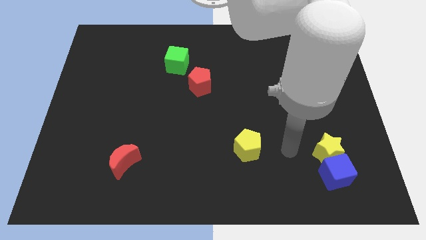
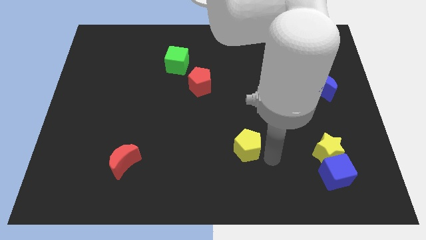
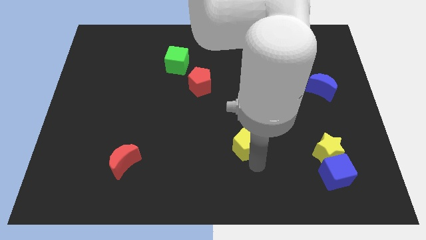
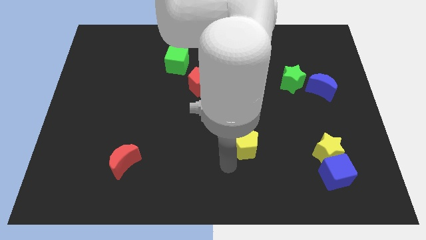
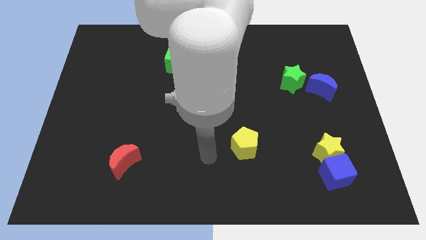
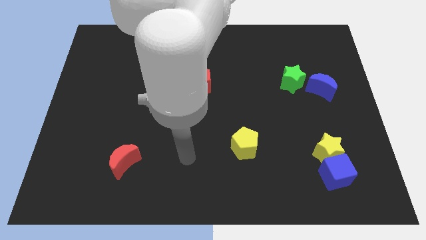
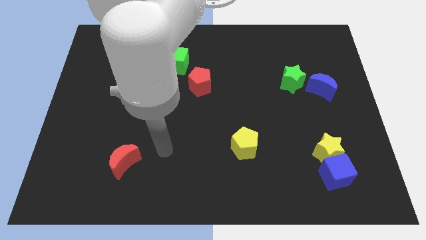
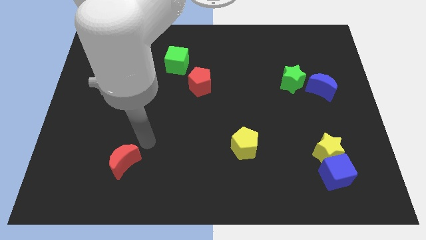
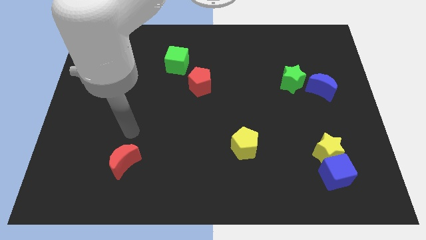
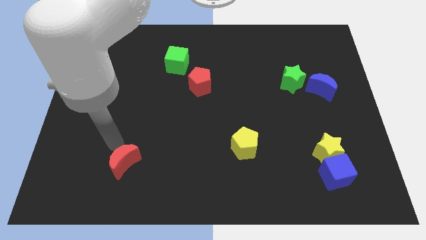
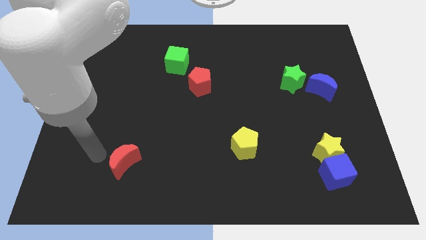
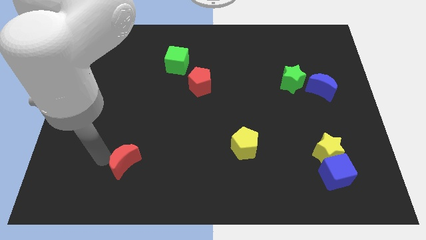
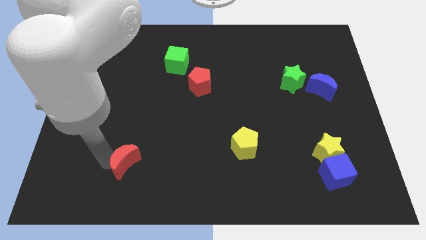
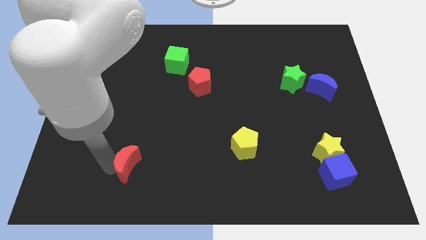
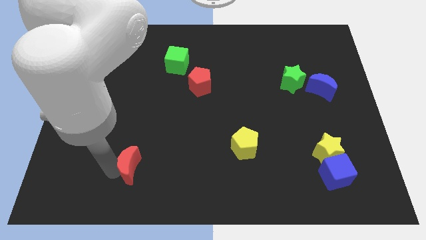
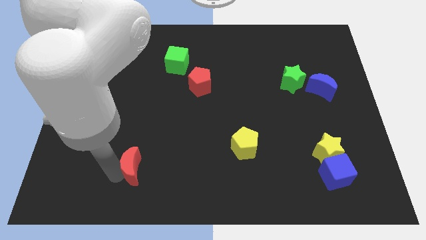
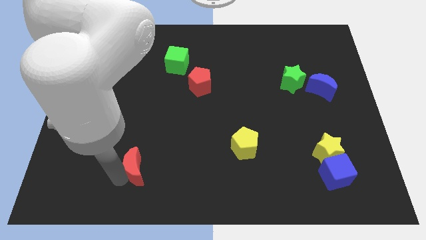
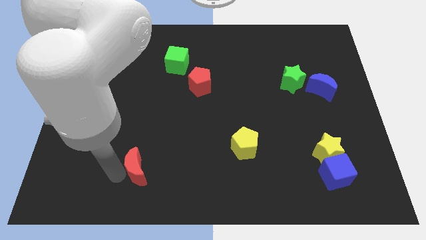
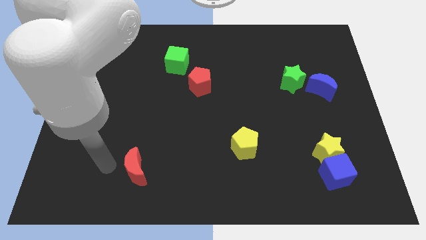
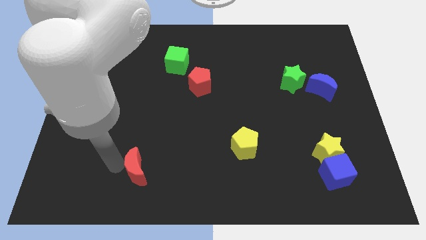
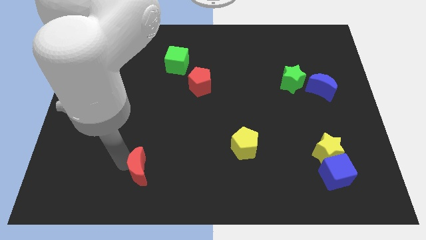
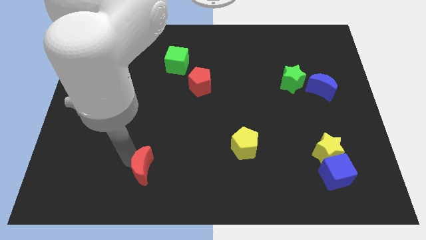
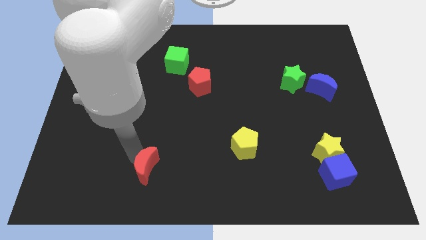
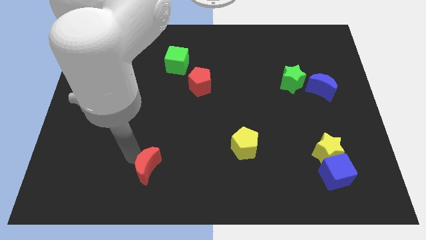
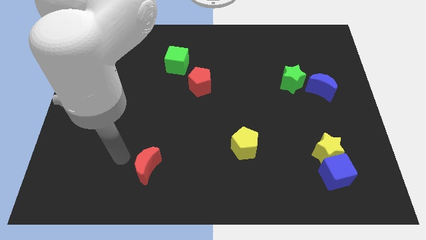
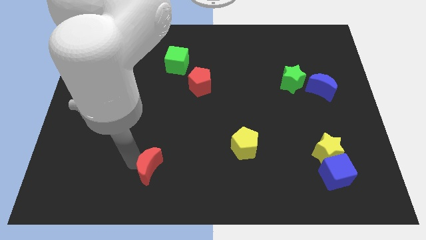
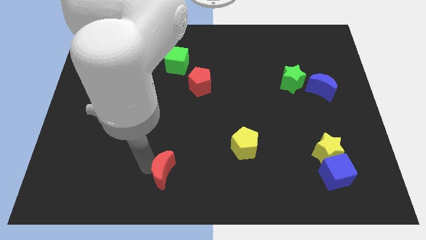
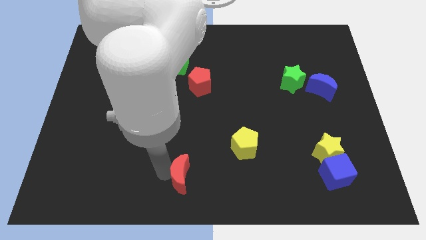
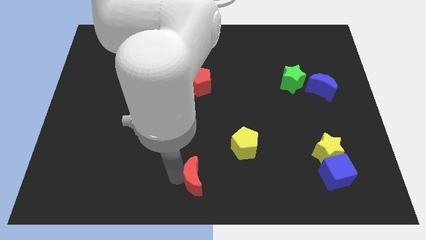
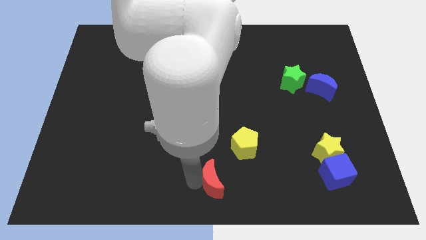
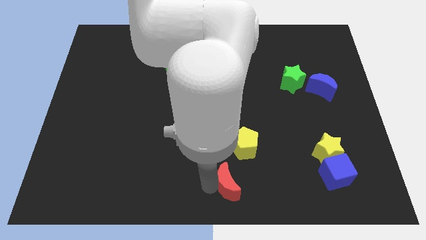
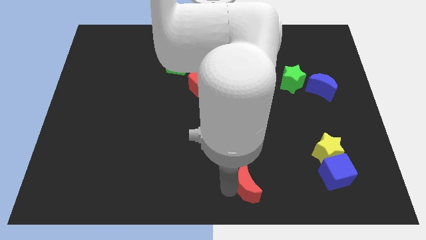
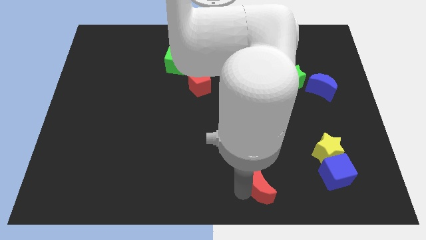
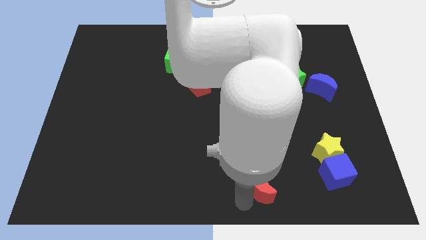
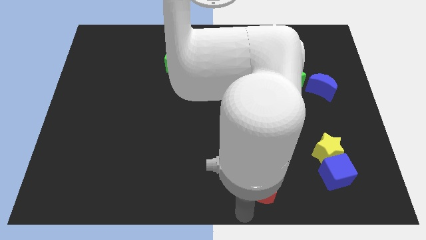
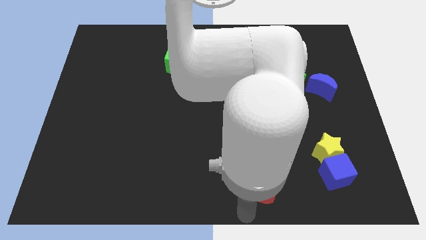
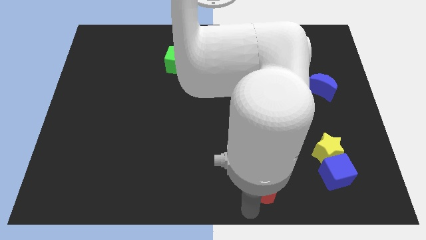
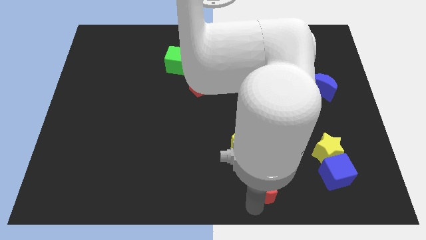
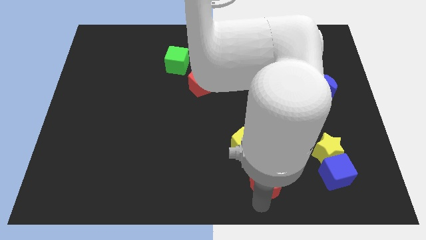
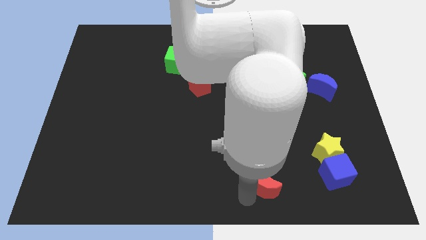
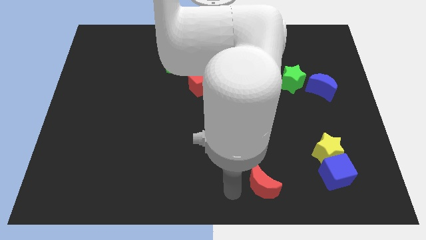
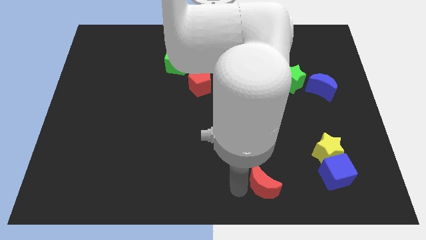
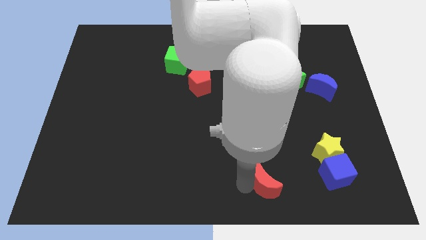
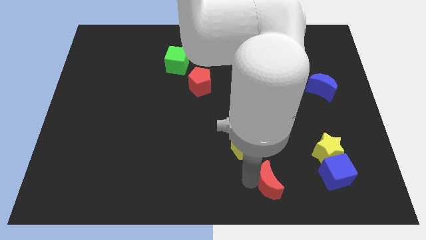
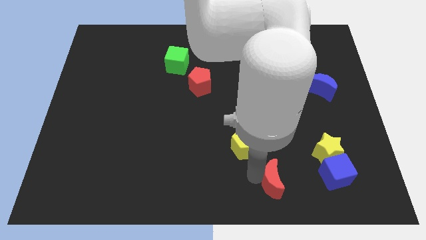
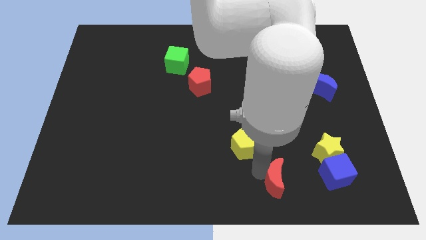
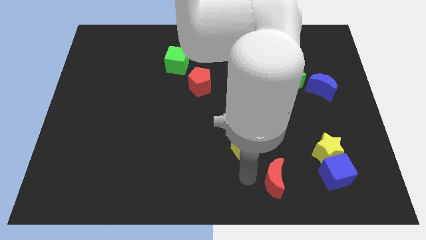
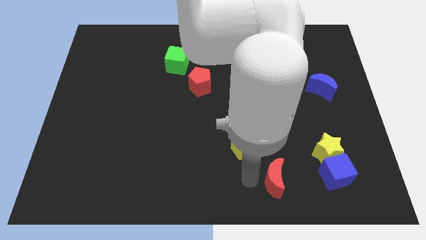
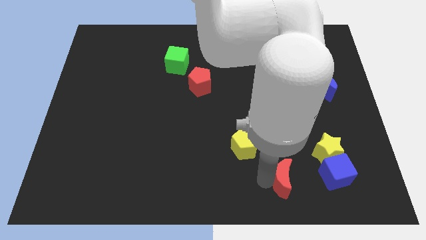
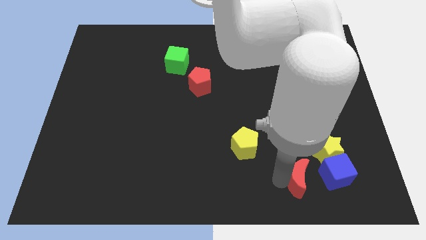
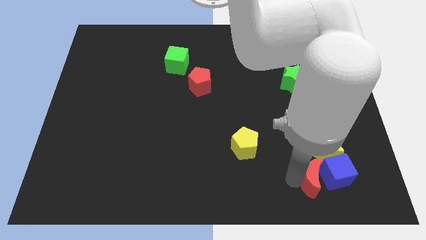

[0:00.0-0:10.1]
move the red moon towards the blue cube

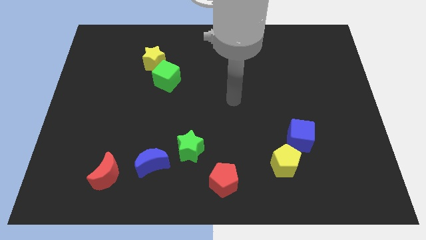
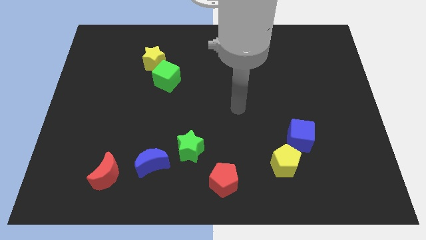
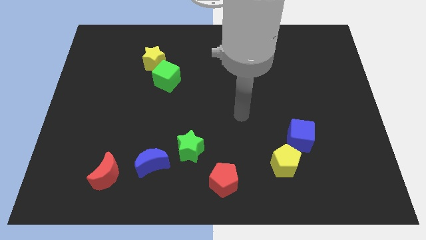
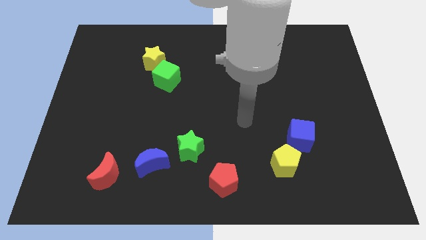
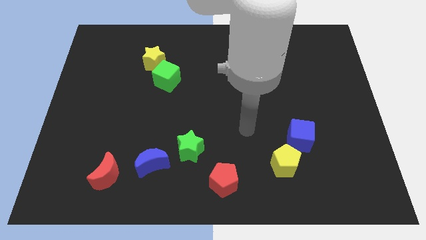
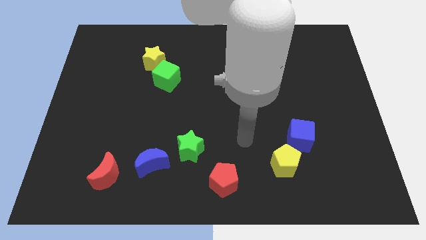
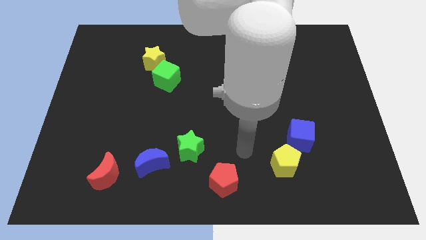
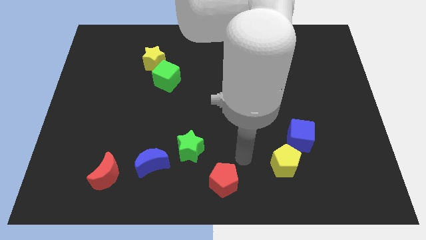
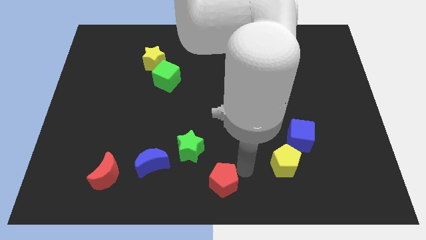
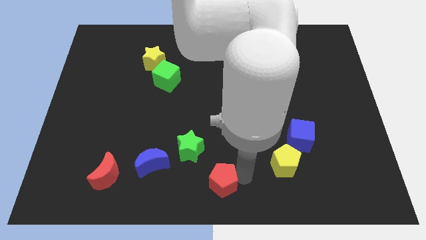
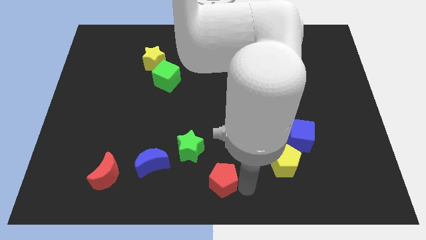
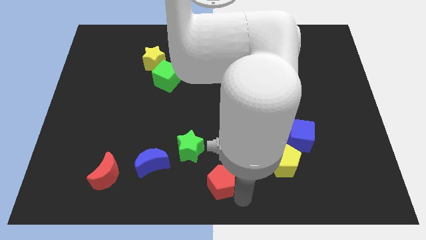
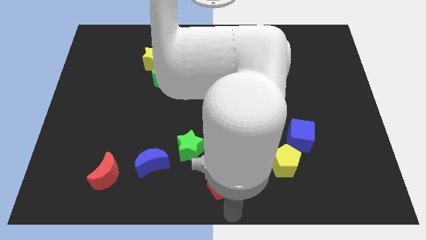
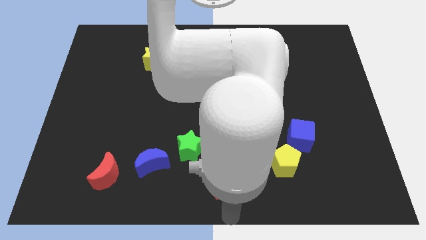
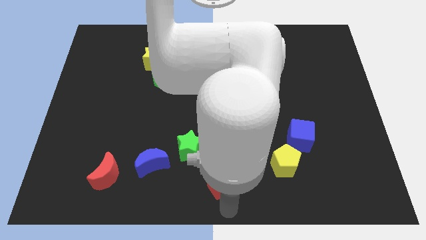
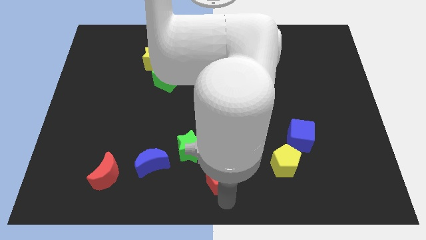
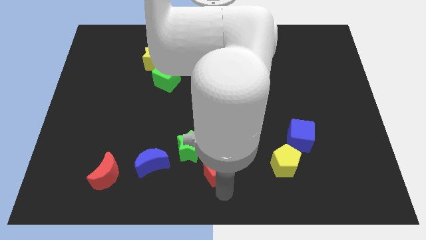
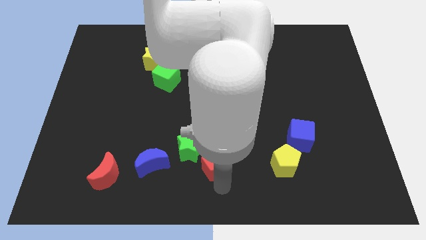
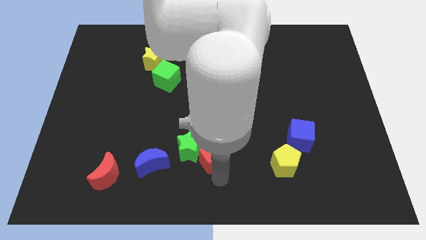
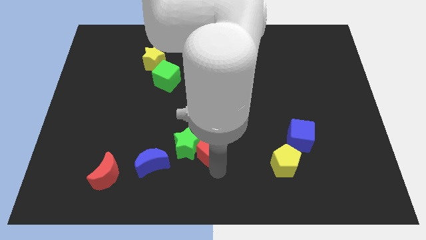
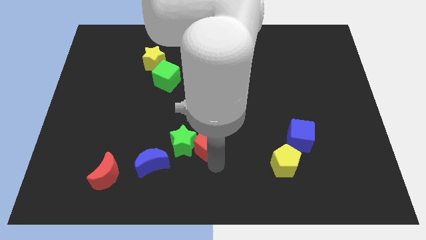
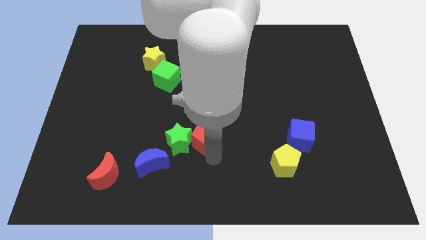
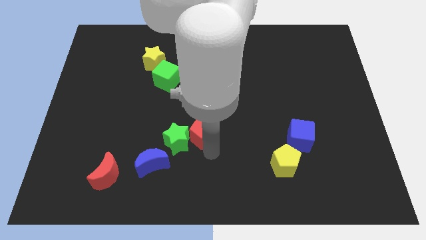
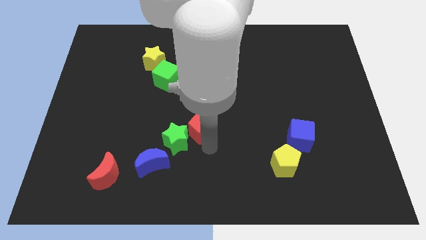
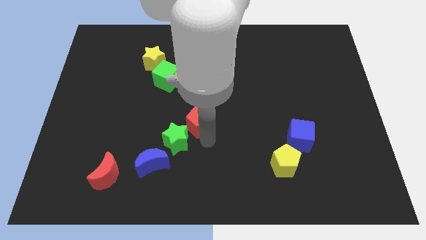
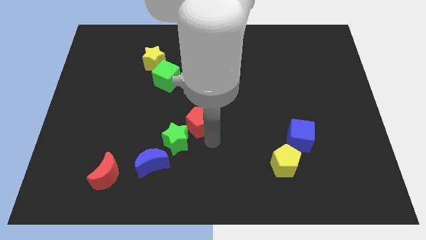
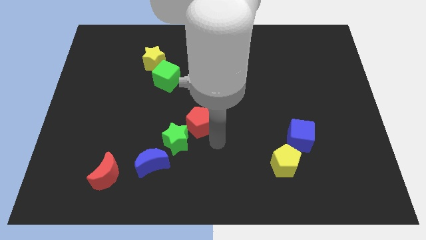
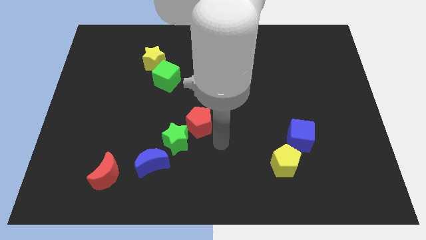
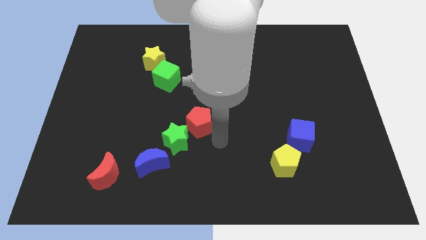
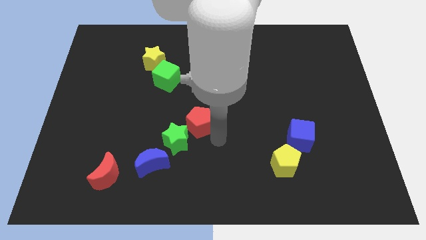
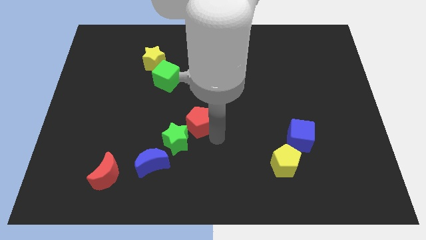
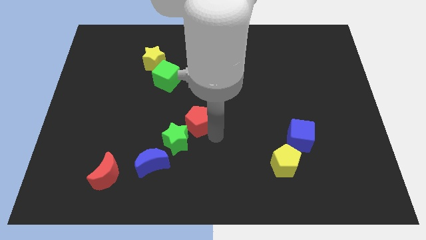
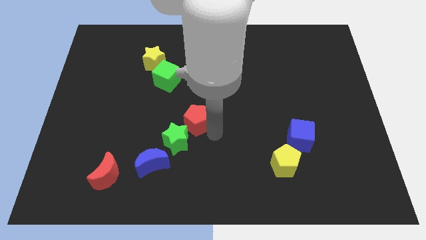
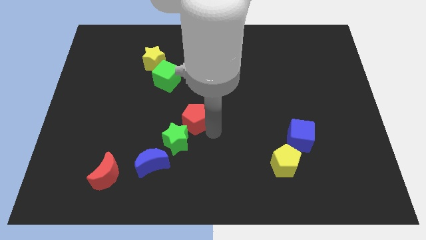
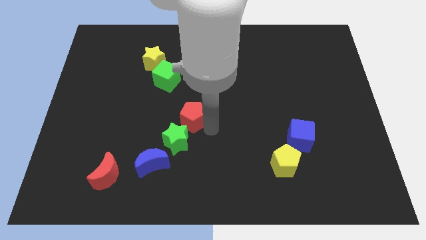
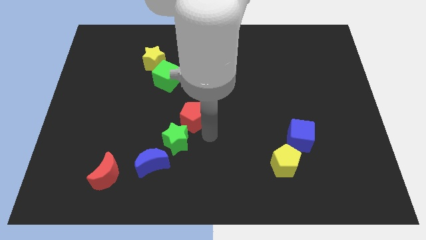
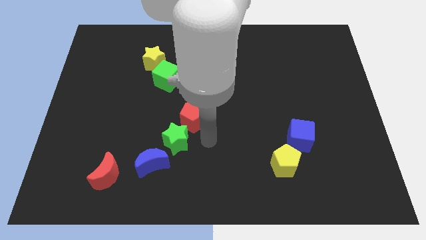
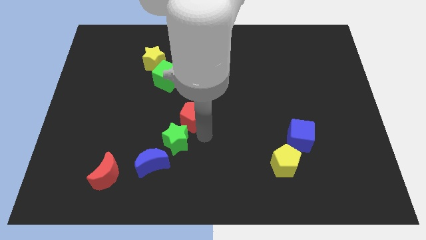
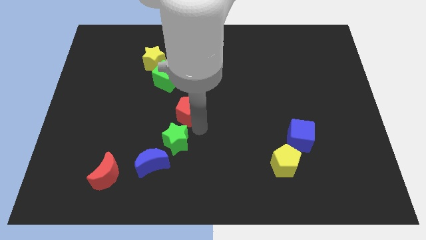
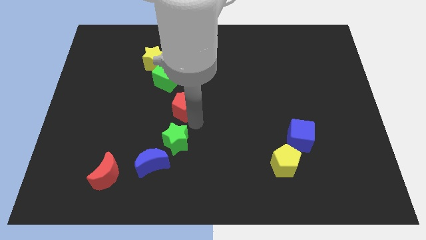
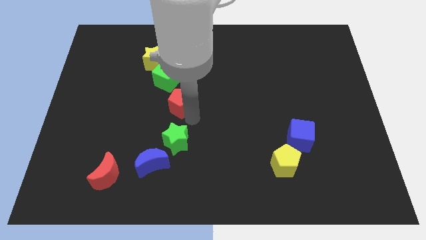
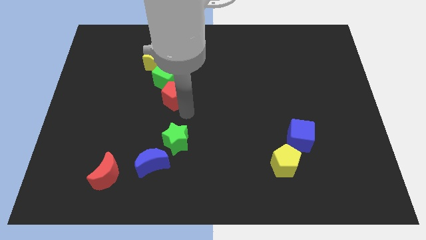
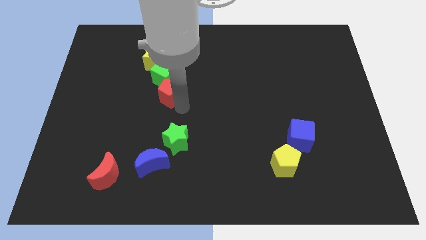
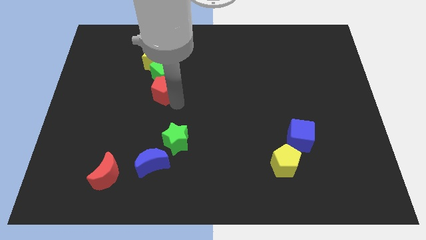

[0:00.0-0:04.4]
push the red pentagon to the green cube
